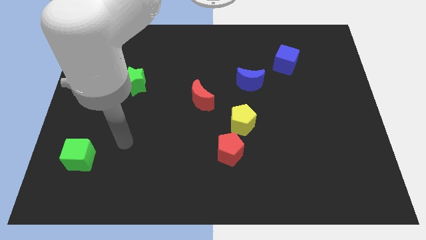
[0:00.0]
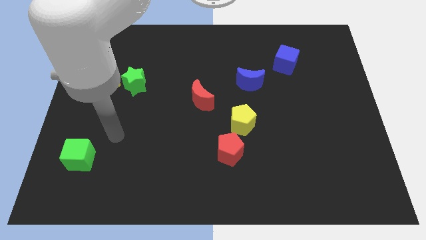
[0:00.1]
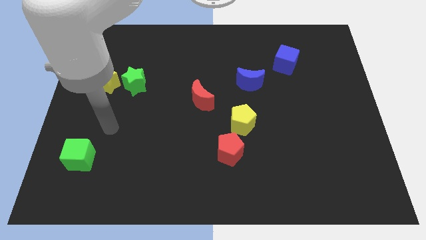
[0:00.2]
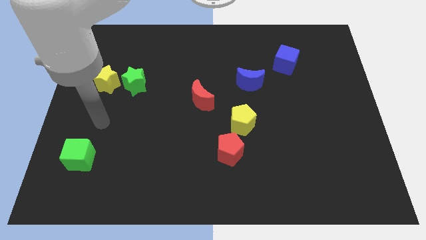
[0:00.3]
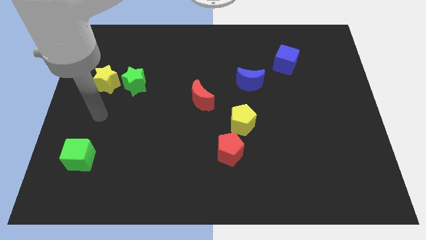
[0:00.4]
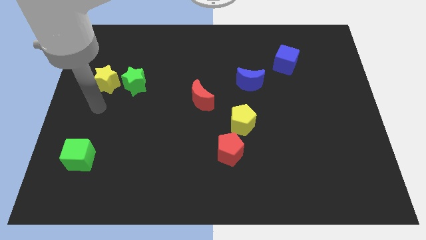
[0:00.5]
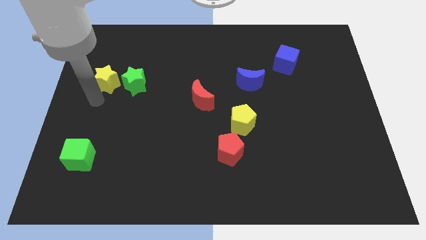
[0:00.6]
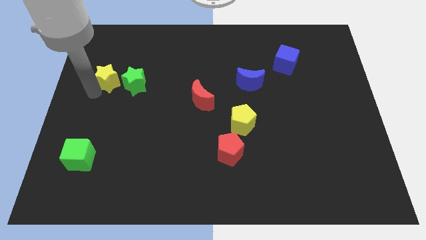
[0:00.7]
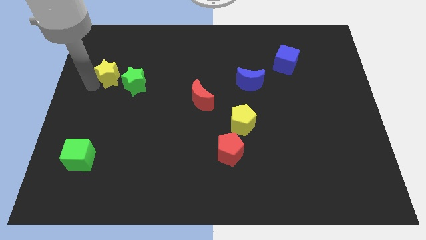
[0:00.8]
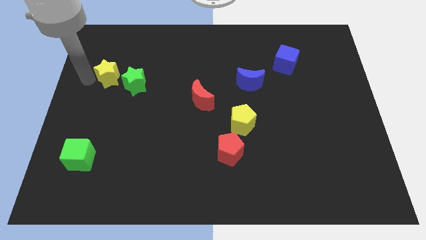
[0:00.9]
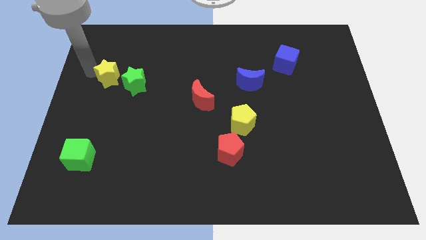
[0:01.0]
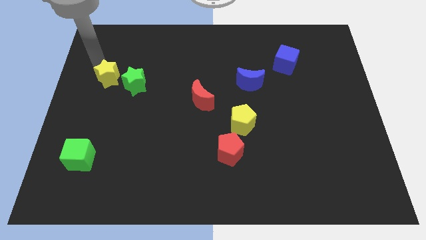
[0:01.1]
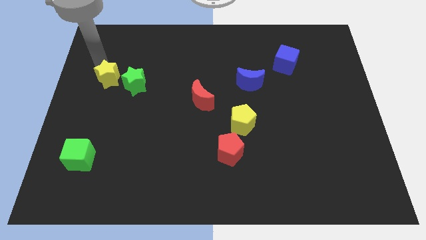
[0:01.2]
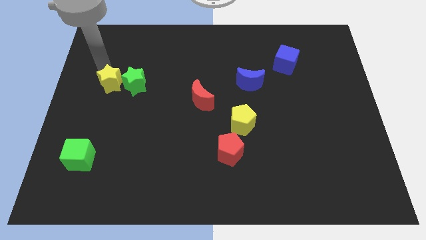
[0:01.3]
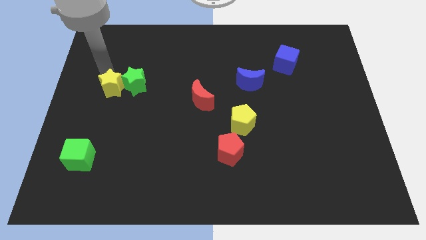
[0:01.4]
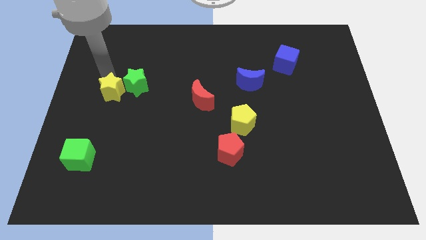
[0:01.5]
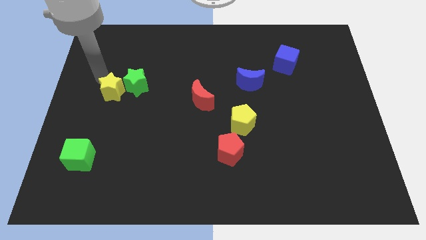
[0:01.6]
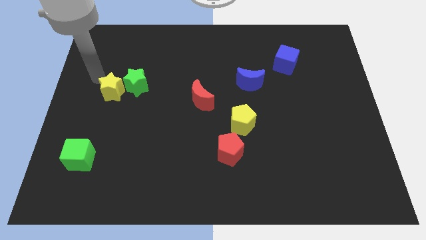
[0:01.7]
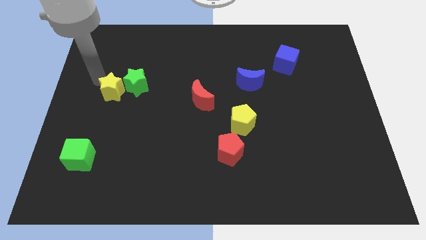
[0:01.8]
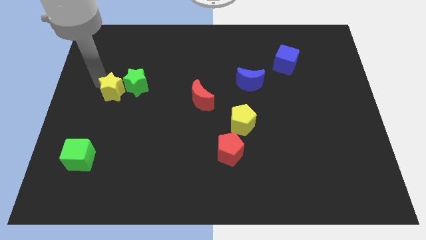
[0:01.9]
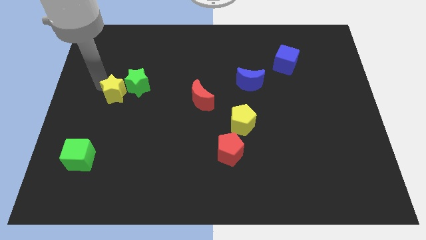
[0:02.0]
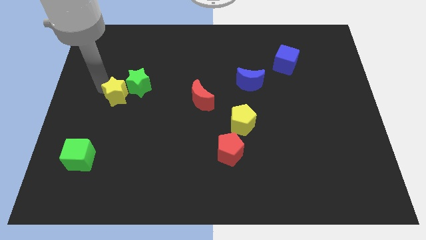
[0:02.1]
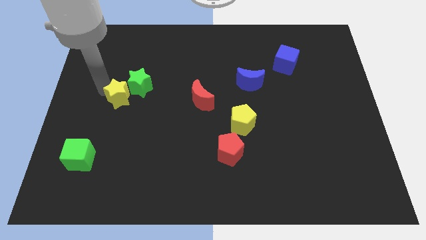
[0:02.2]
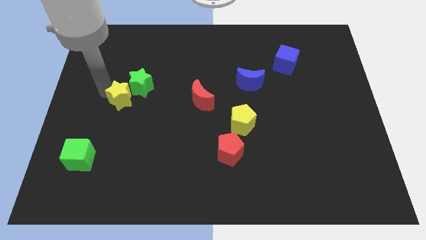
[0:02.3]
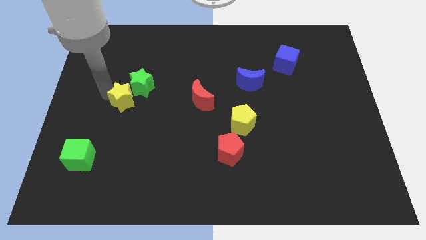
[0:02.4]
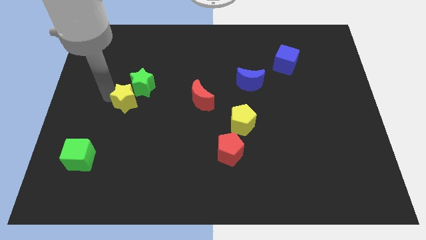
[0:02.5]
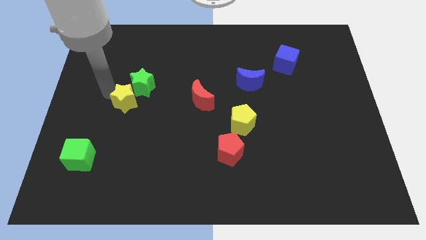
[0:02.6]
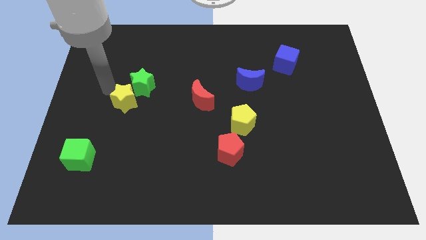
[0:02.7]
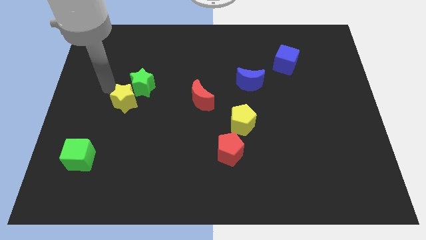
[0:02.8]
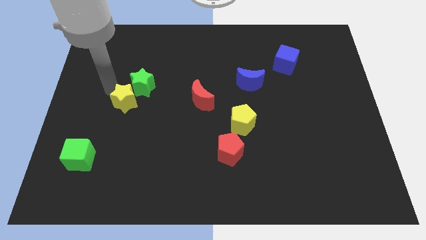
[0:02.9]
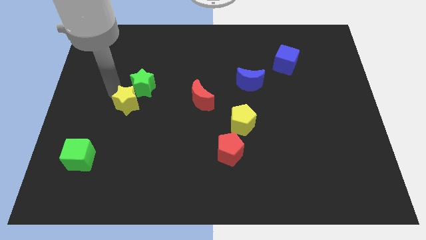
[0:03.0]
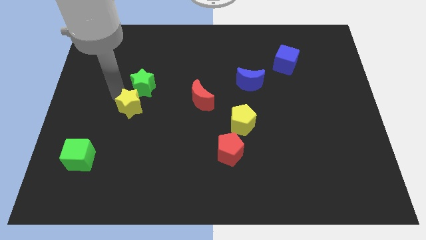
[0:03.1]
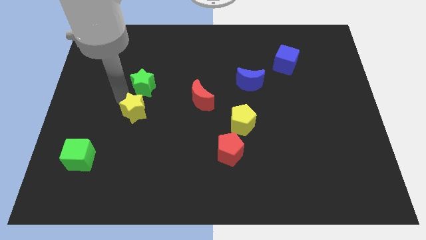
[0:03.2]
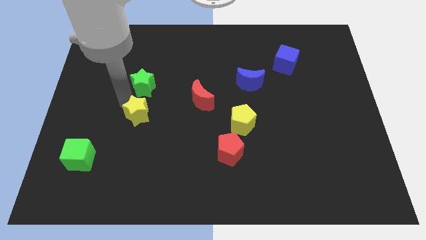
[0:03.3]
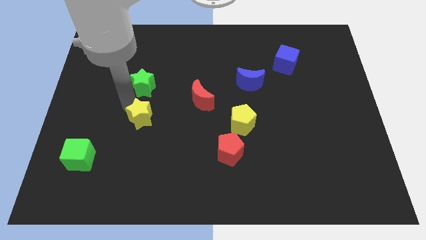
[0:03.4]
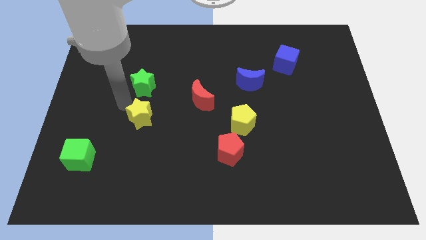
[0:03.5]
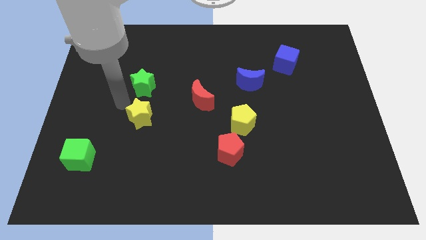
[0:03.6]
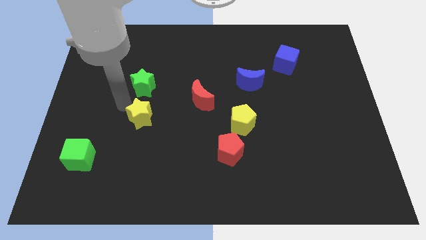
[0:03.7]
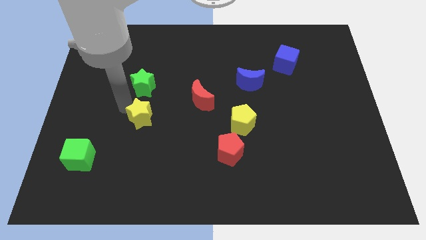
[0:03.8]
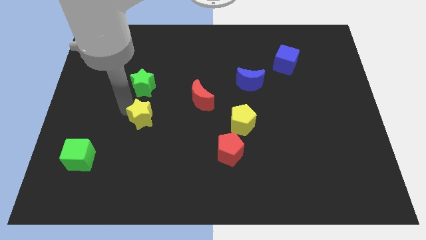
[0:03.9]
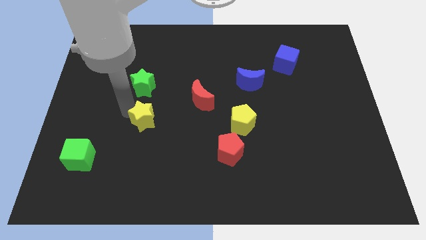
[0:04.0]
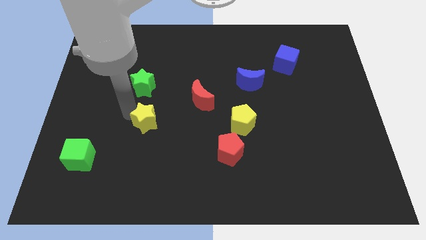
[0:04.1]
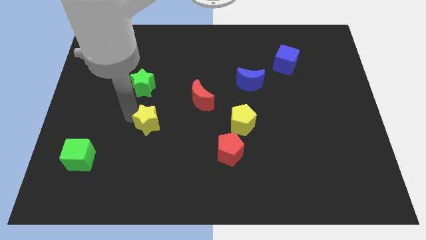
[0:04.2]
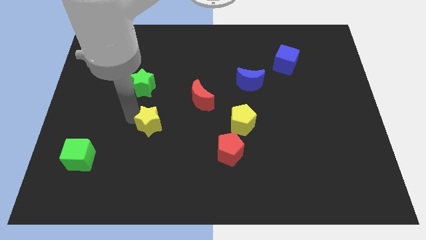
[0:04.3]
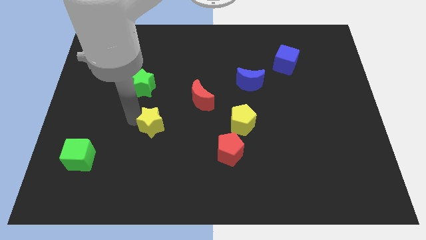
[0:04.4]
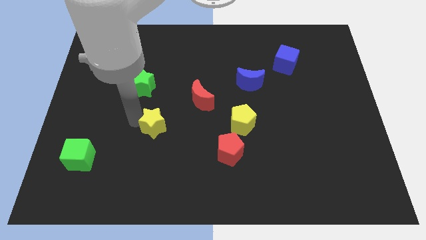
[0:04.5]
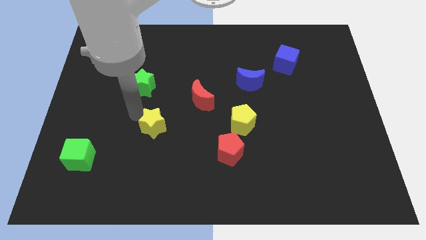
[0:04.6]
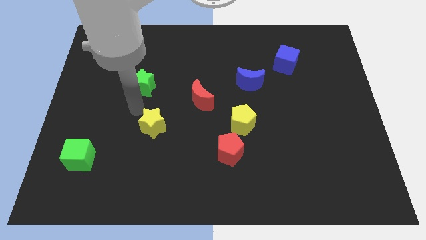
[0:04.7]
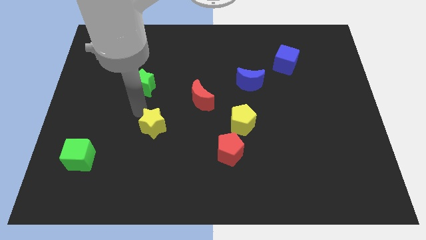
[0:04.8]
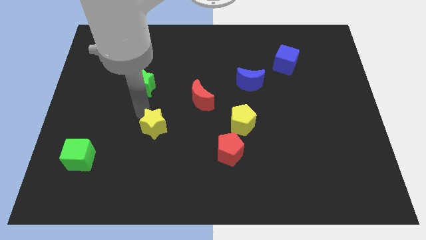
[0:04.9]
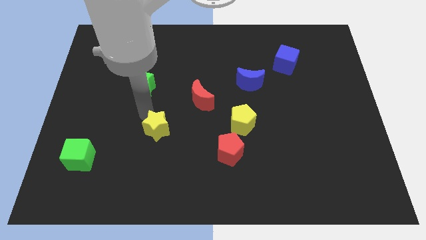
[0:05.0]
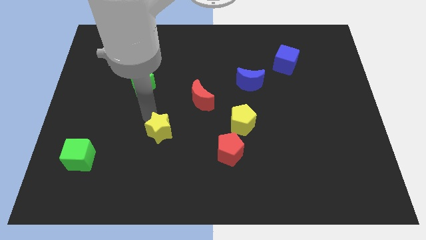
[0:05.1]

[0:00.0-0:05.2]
push the yellow star down and to the right

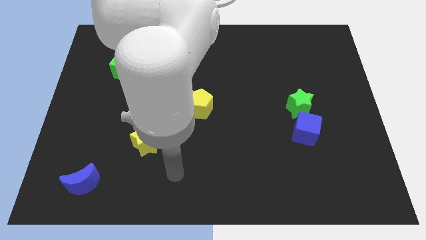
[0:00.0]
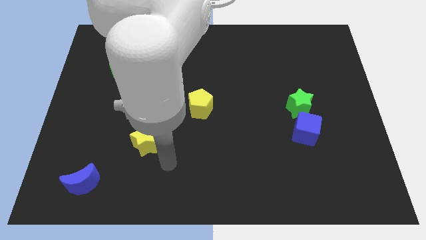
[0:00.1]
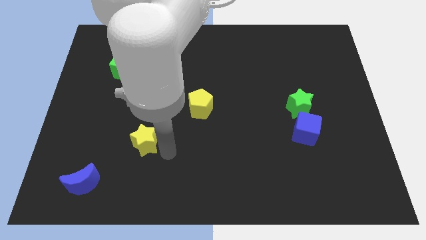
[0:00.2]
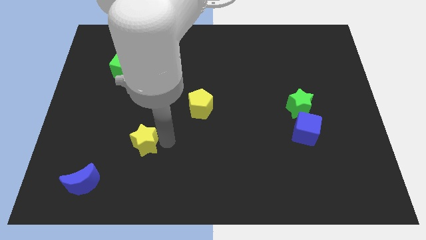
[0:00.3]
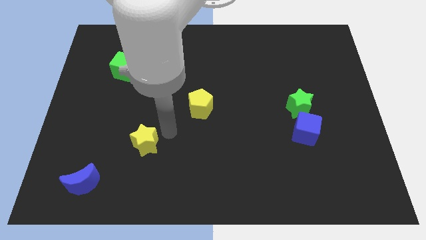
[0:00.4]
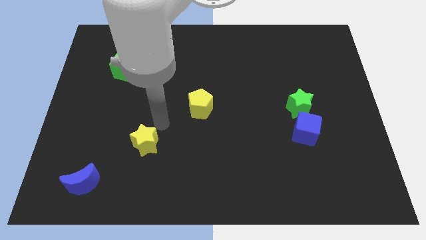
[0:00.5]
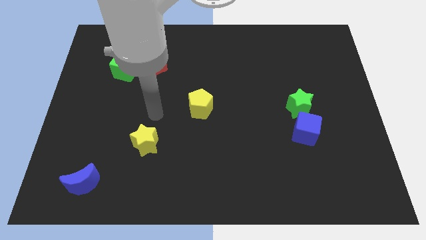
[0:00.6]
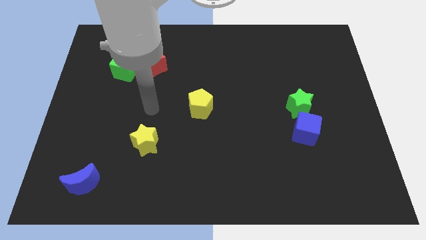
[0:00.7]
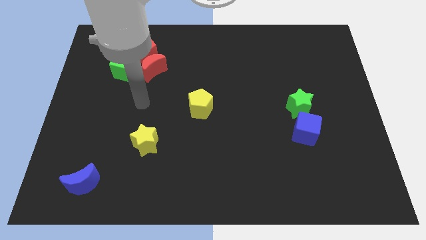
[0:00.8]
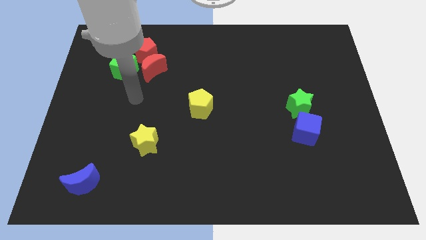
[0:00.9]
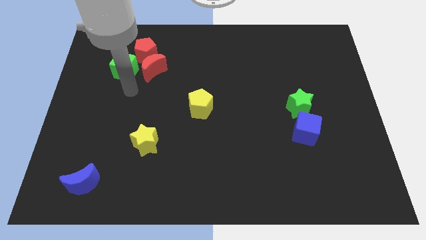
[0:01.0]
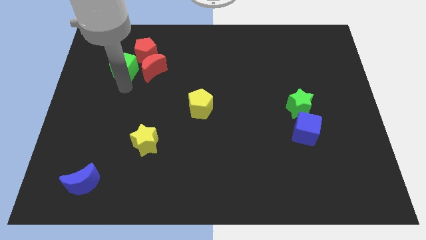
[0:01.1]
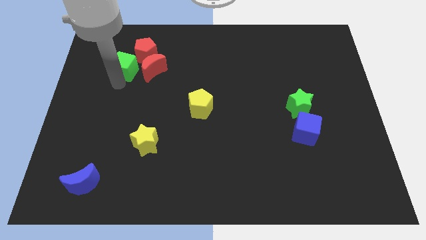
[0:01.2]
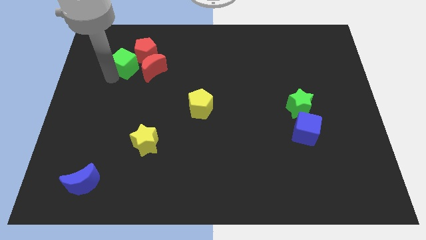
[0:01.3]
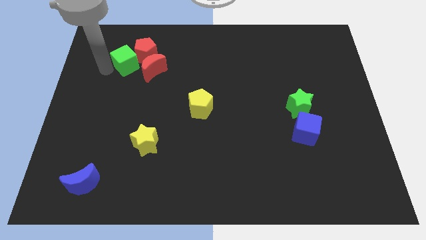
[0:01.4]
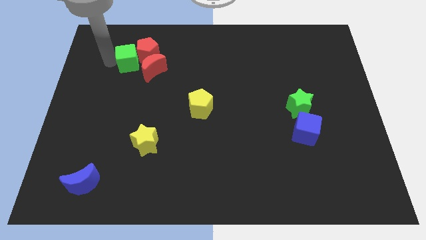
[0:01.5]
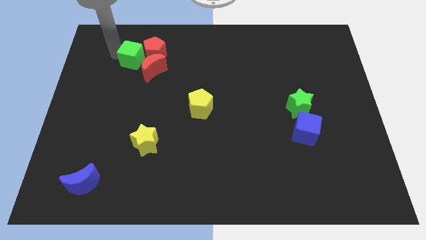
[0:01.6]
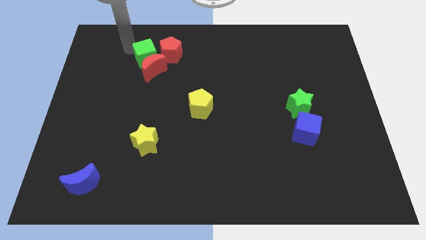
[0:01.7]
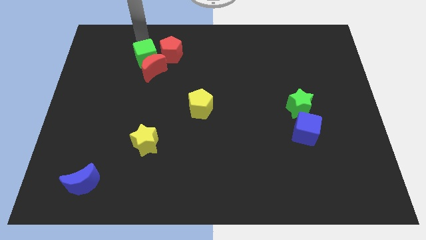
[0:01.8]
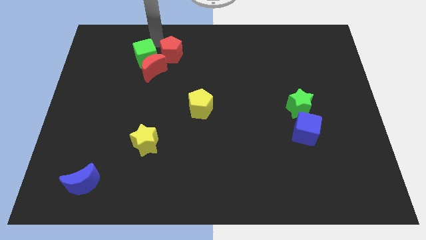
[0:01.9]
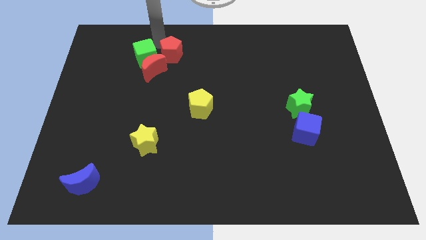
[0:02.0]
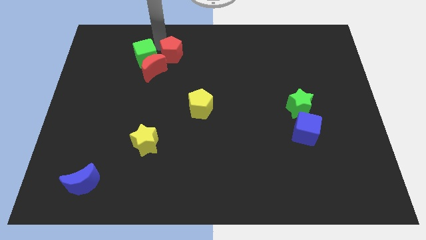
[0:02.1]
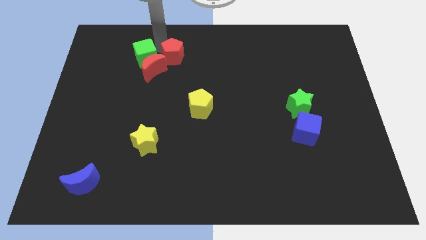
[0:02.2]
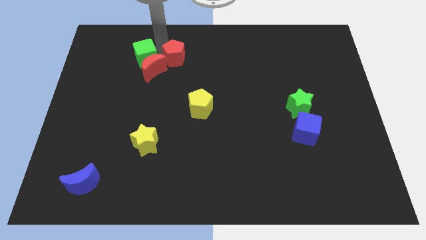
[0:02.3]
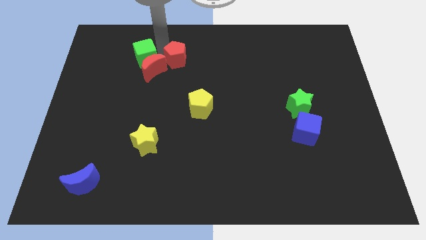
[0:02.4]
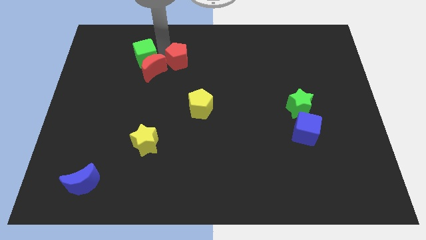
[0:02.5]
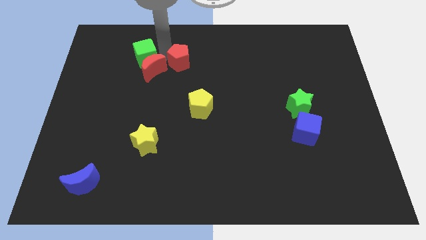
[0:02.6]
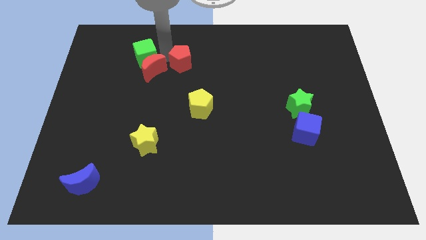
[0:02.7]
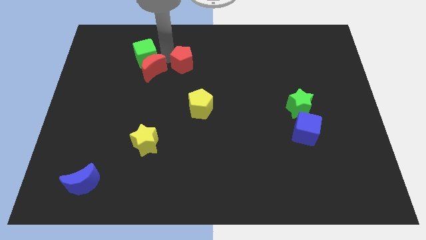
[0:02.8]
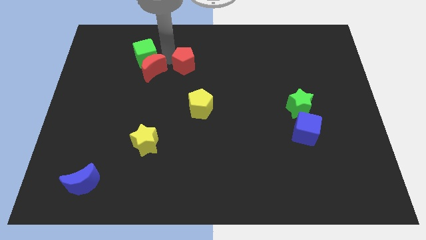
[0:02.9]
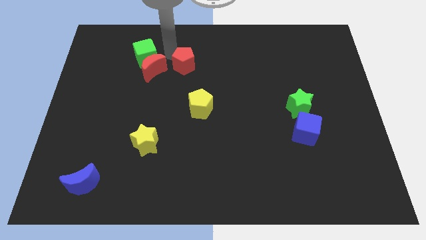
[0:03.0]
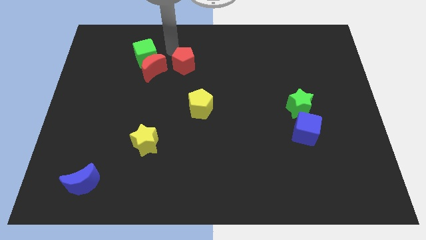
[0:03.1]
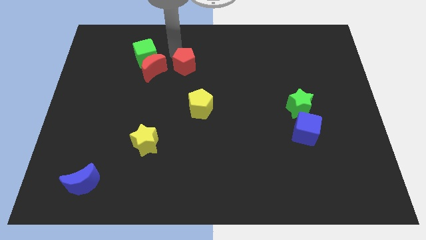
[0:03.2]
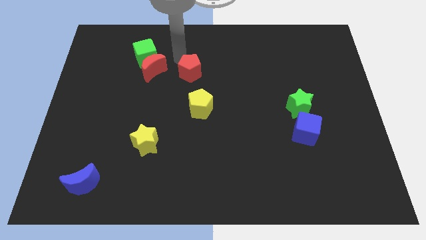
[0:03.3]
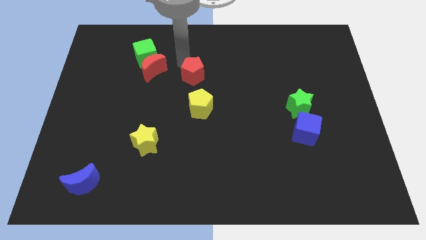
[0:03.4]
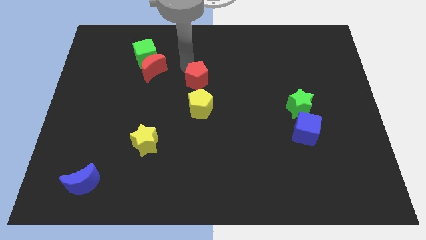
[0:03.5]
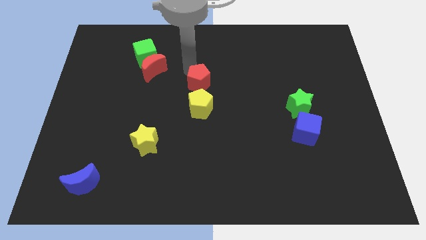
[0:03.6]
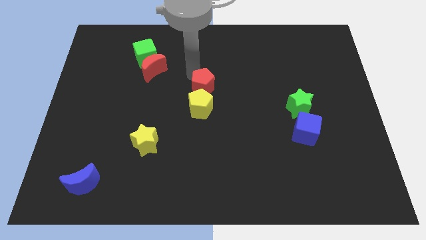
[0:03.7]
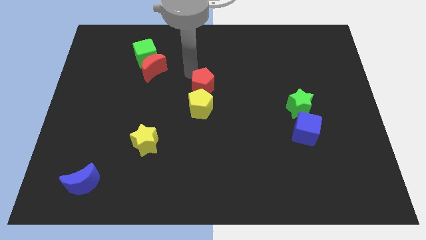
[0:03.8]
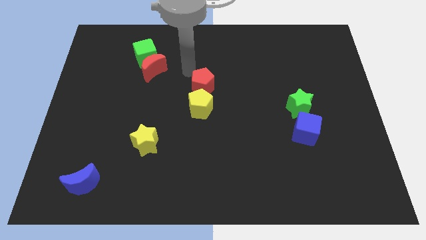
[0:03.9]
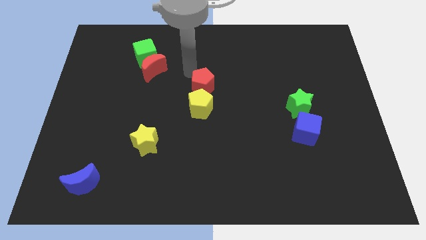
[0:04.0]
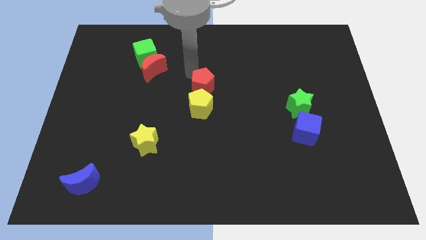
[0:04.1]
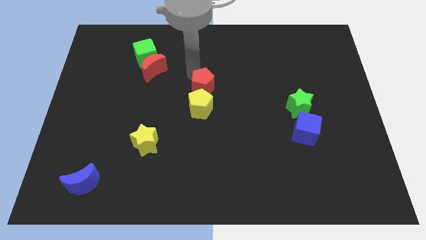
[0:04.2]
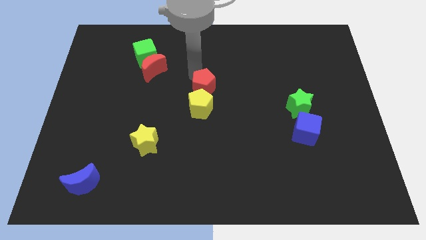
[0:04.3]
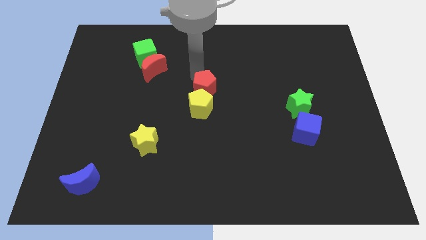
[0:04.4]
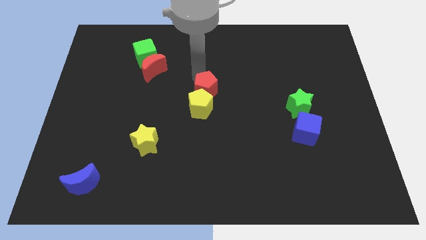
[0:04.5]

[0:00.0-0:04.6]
move the red pentagon down and to the right diagonally
